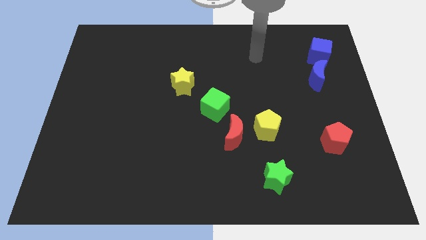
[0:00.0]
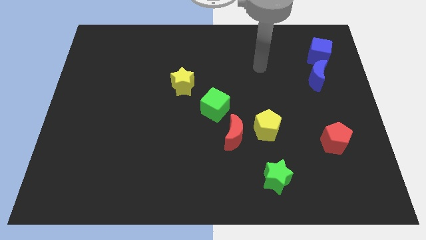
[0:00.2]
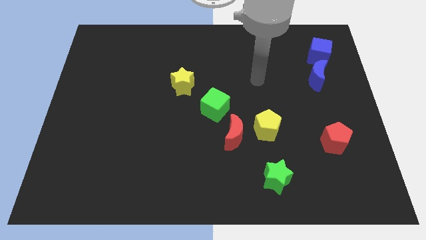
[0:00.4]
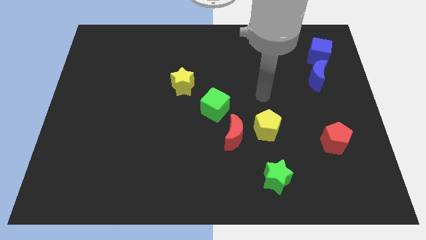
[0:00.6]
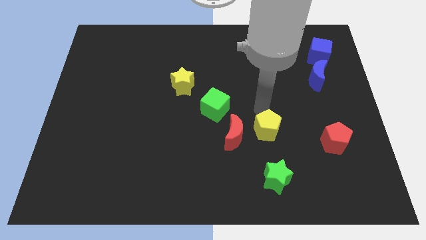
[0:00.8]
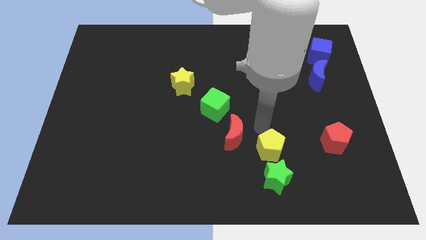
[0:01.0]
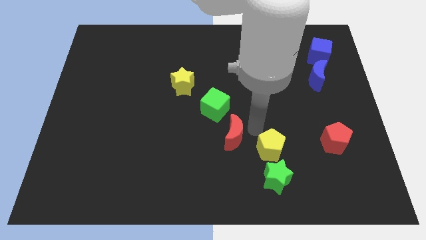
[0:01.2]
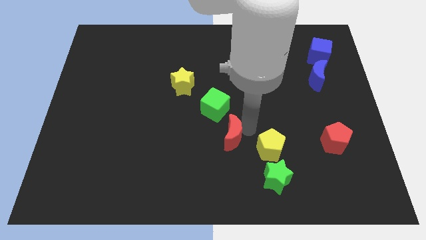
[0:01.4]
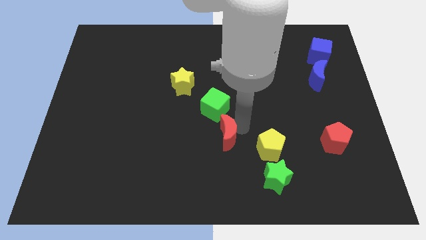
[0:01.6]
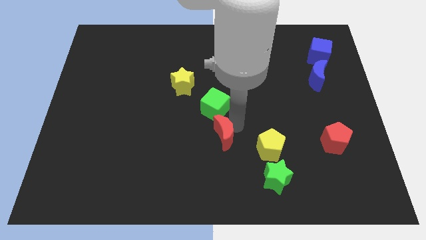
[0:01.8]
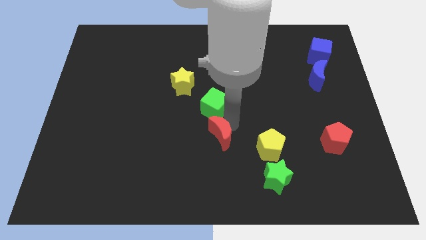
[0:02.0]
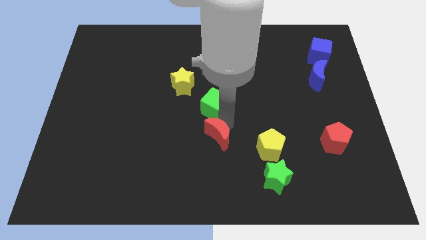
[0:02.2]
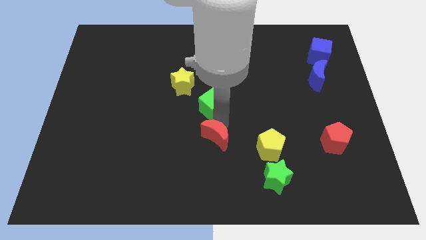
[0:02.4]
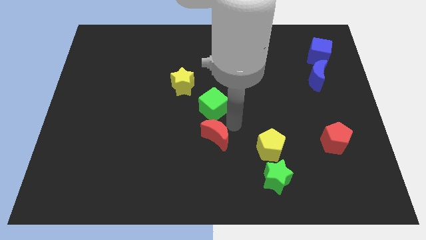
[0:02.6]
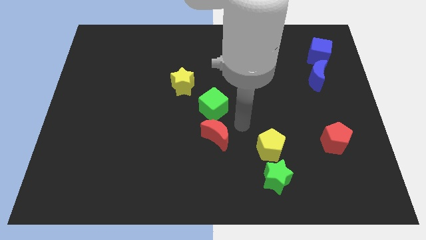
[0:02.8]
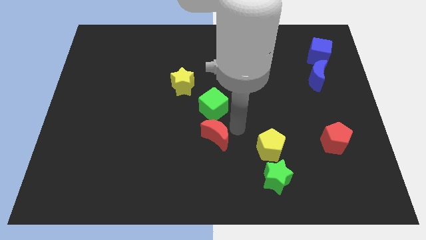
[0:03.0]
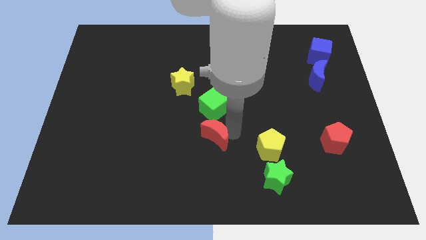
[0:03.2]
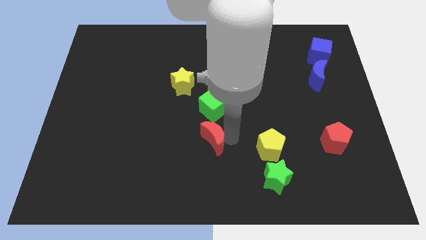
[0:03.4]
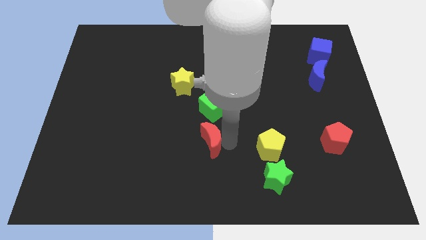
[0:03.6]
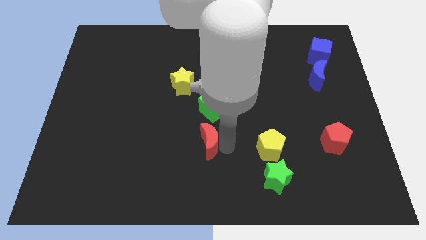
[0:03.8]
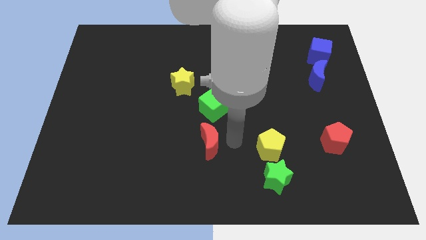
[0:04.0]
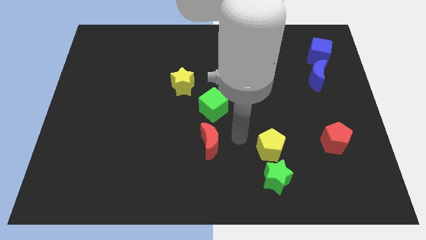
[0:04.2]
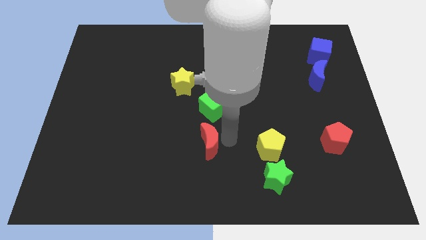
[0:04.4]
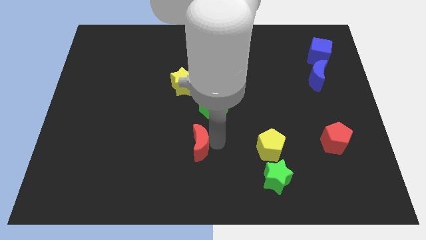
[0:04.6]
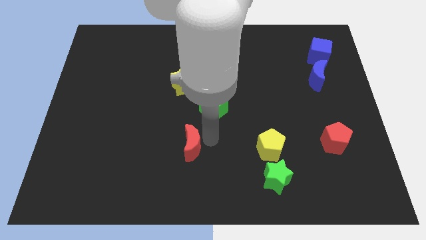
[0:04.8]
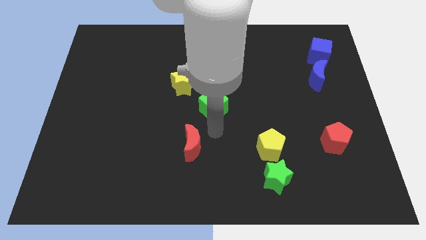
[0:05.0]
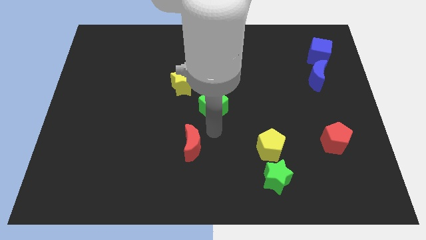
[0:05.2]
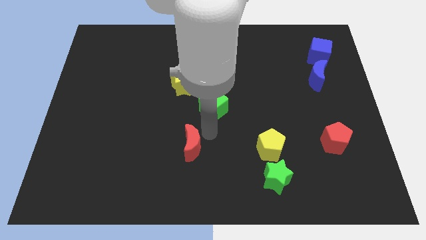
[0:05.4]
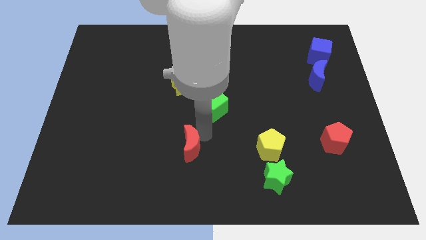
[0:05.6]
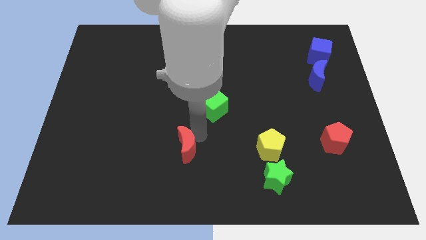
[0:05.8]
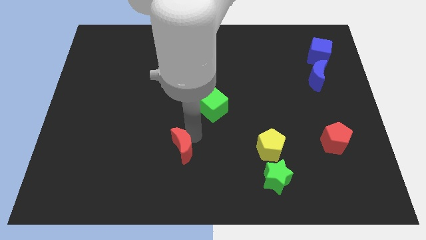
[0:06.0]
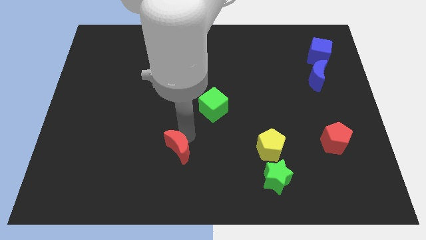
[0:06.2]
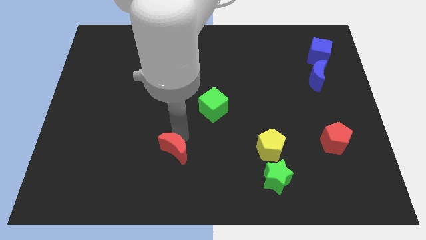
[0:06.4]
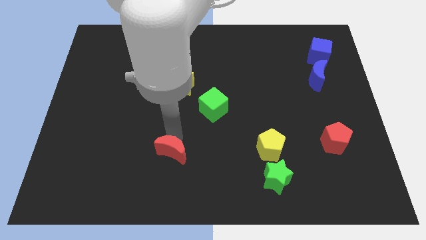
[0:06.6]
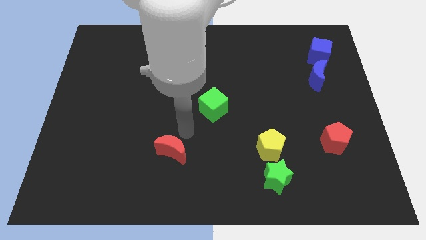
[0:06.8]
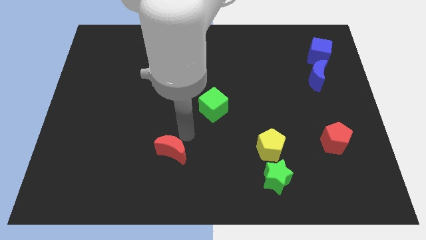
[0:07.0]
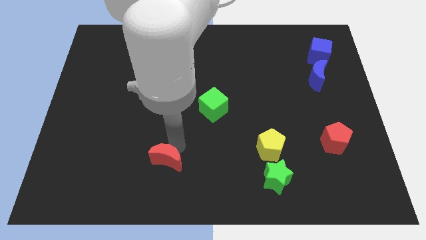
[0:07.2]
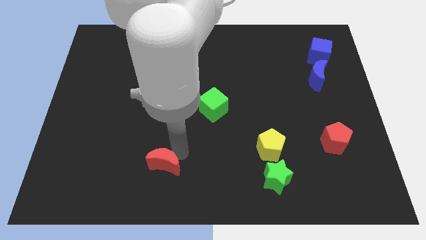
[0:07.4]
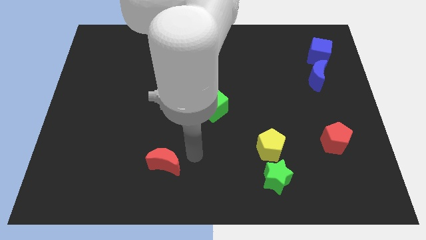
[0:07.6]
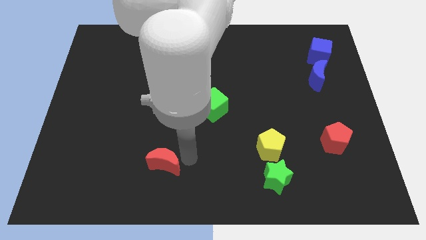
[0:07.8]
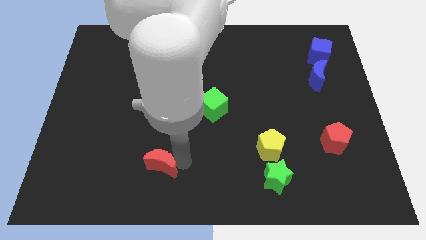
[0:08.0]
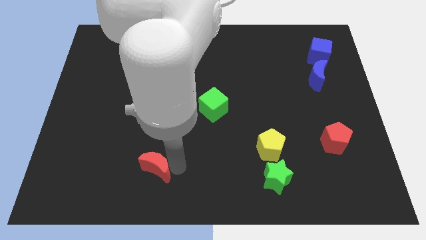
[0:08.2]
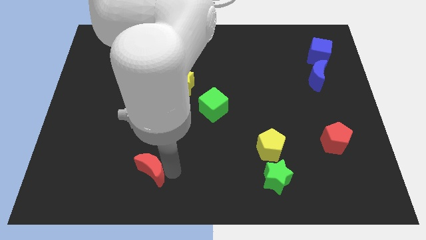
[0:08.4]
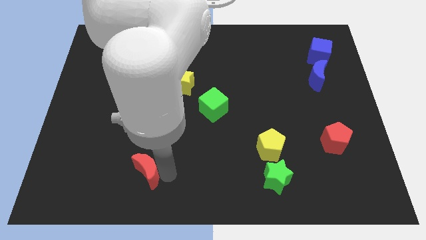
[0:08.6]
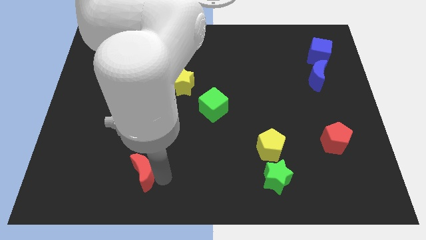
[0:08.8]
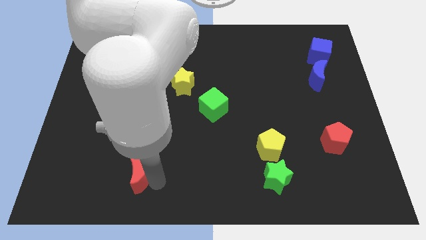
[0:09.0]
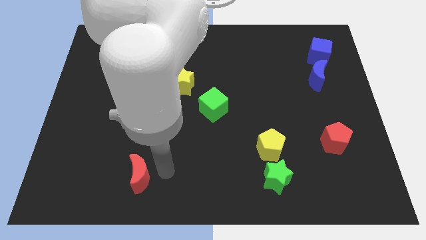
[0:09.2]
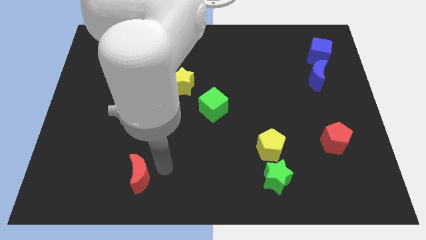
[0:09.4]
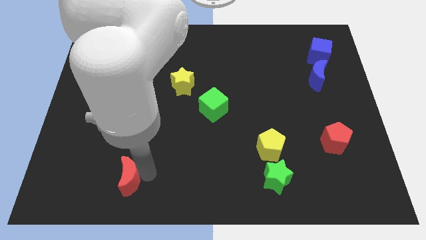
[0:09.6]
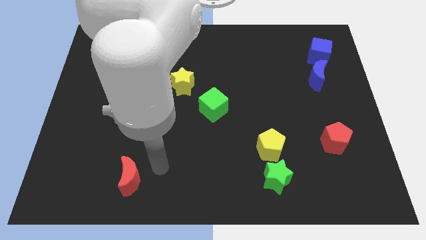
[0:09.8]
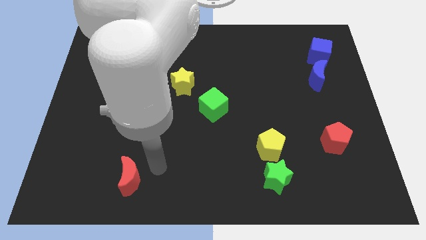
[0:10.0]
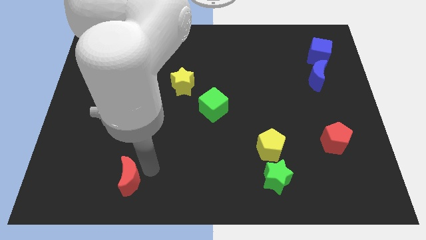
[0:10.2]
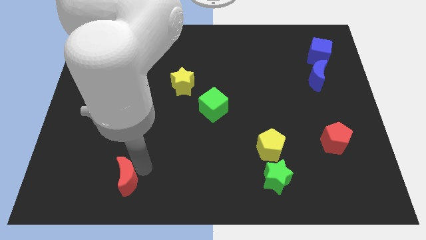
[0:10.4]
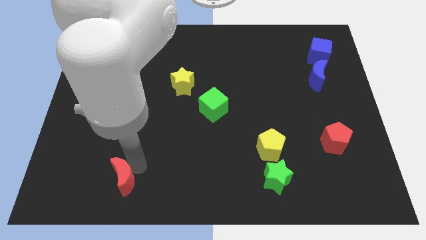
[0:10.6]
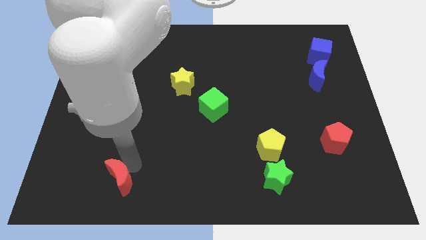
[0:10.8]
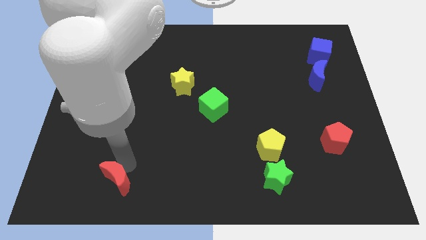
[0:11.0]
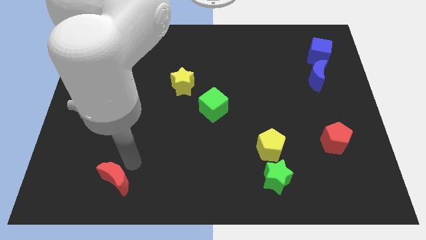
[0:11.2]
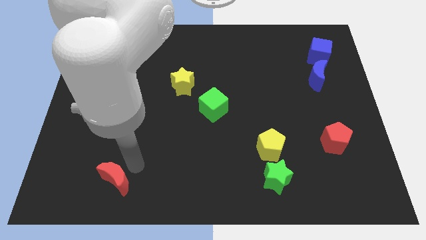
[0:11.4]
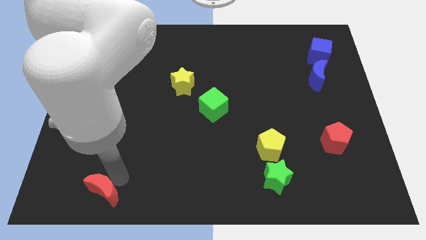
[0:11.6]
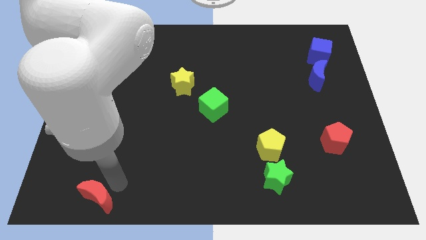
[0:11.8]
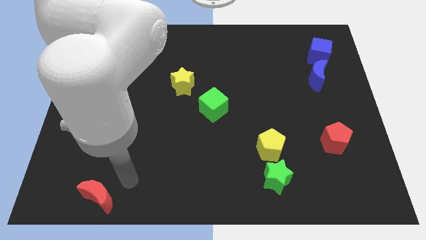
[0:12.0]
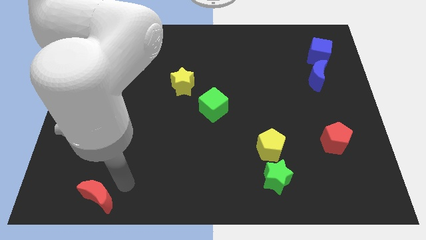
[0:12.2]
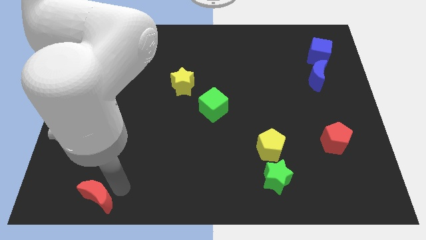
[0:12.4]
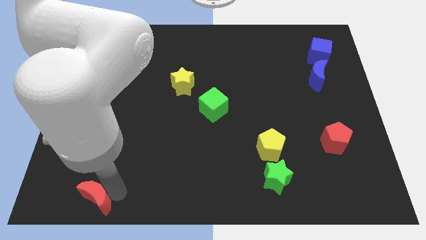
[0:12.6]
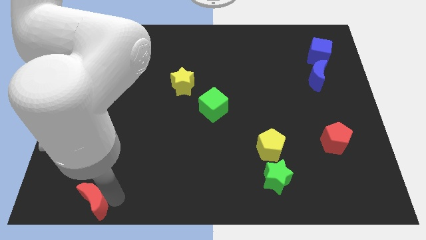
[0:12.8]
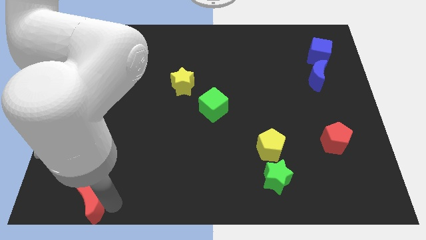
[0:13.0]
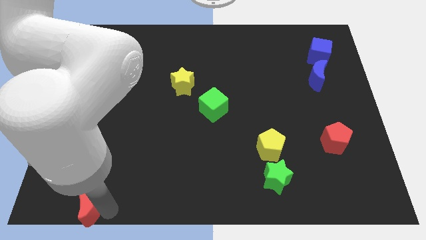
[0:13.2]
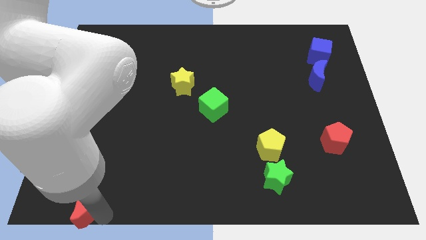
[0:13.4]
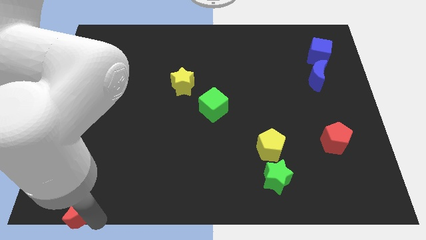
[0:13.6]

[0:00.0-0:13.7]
move the red moon to the bottom left of the board

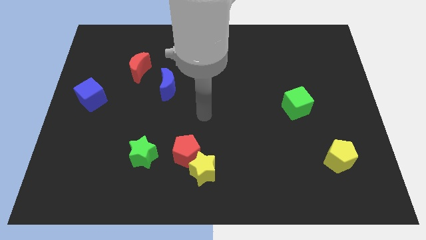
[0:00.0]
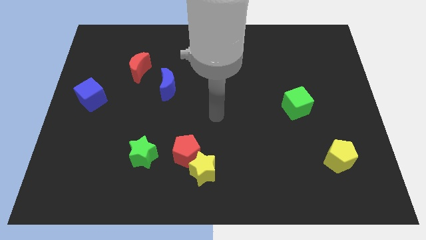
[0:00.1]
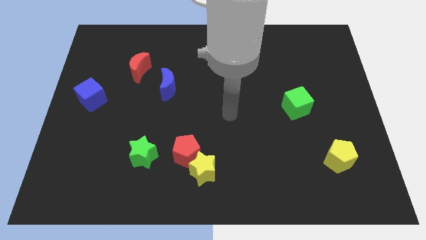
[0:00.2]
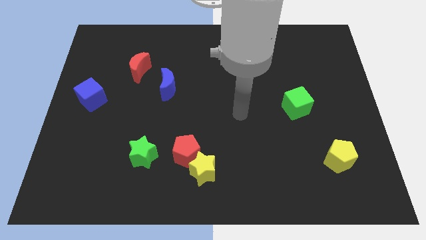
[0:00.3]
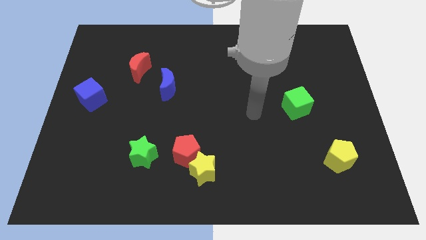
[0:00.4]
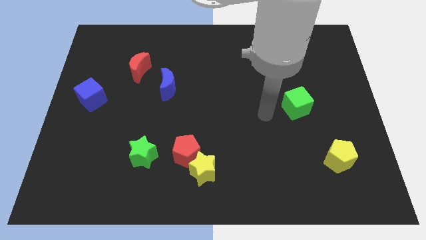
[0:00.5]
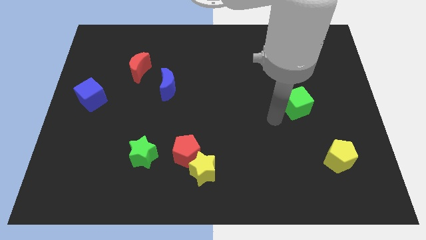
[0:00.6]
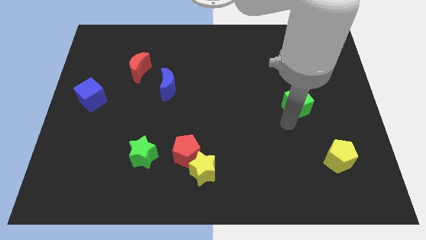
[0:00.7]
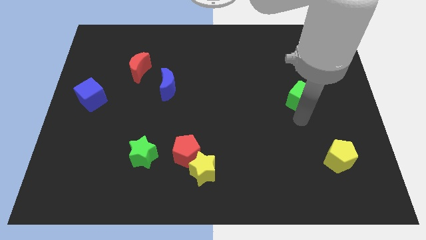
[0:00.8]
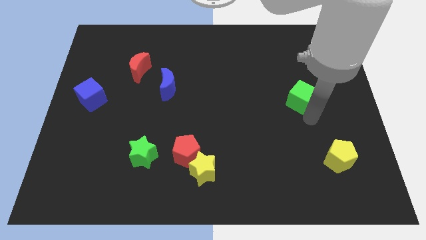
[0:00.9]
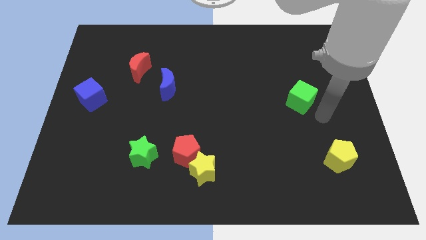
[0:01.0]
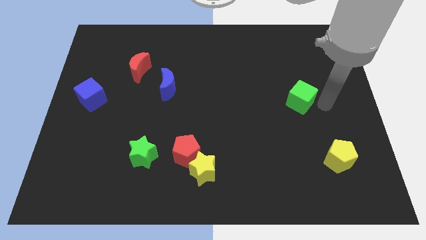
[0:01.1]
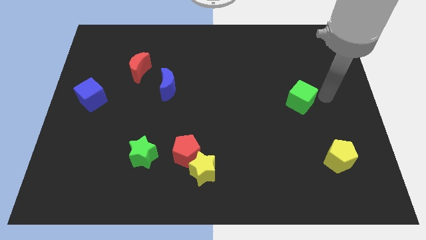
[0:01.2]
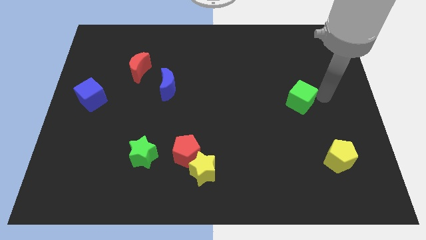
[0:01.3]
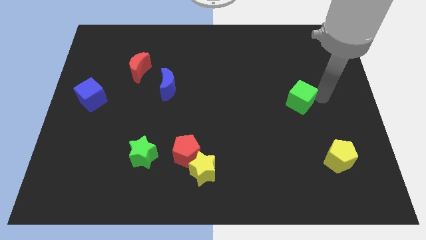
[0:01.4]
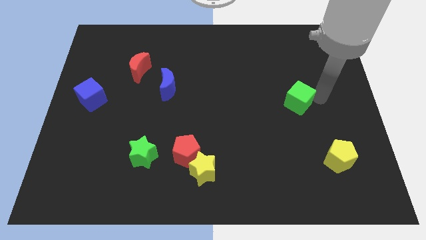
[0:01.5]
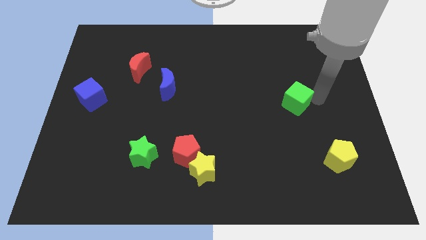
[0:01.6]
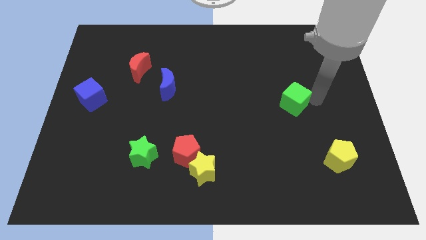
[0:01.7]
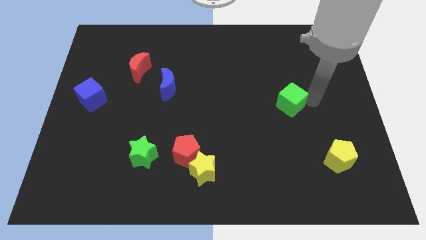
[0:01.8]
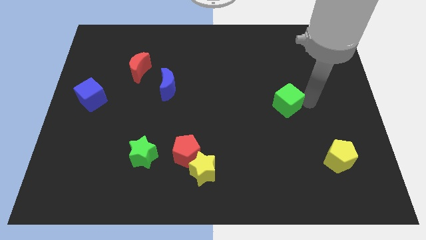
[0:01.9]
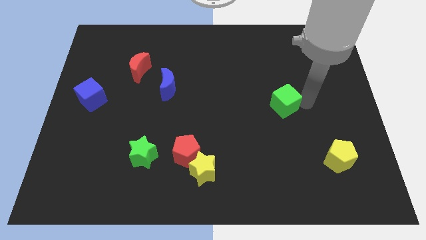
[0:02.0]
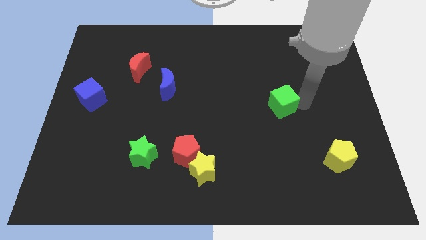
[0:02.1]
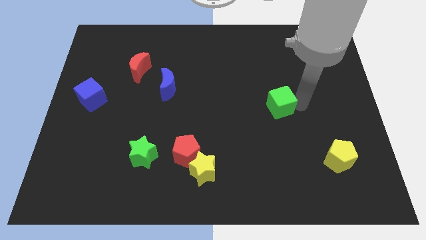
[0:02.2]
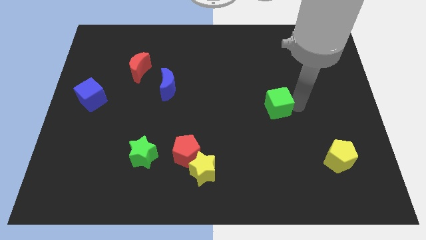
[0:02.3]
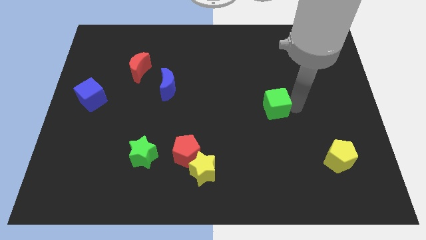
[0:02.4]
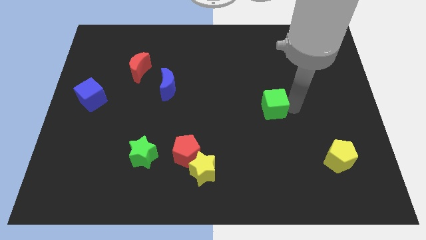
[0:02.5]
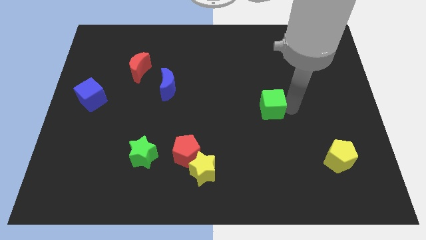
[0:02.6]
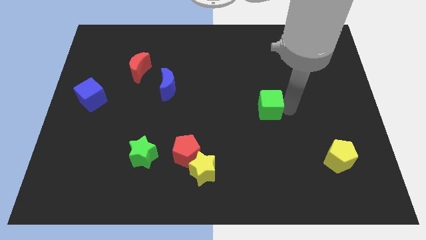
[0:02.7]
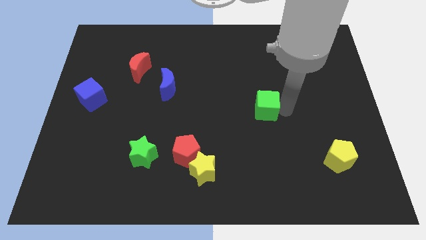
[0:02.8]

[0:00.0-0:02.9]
slide the green cube to the center of the board
